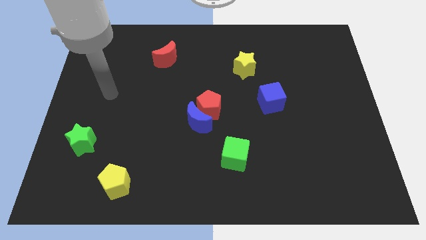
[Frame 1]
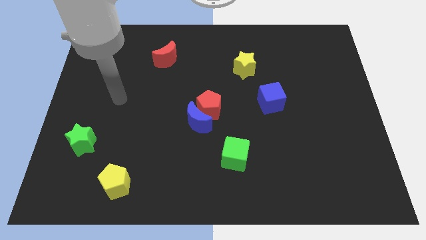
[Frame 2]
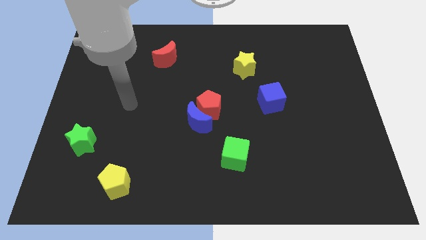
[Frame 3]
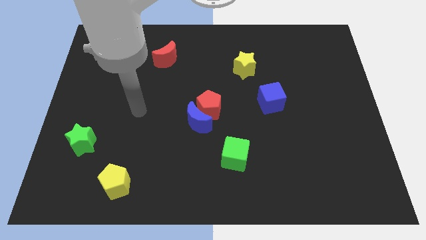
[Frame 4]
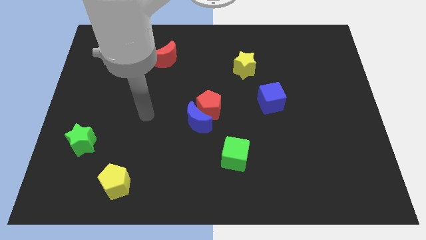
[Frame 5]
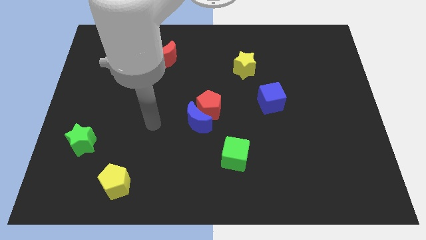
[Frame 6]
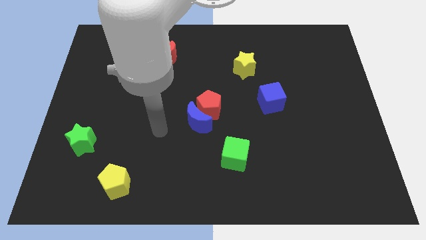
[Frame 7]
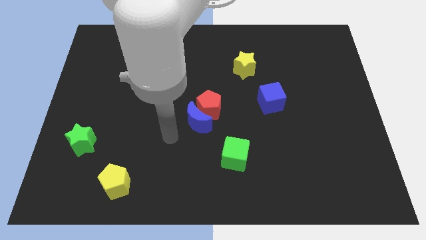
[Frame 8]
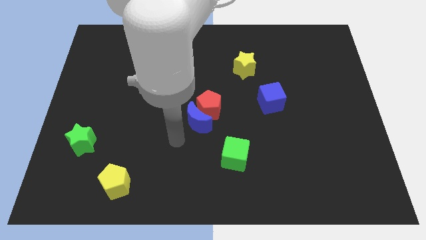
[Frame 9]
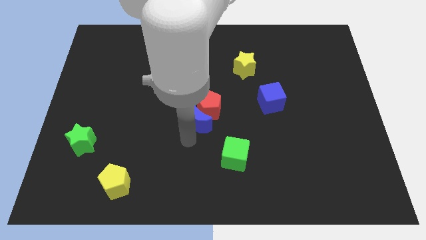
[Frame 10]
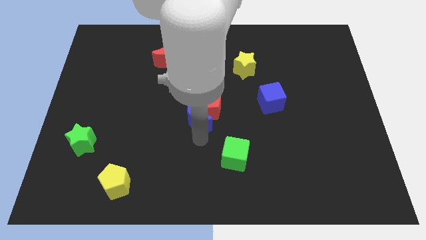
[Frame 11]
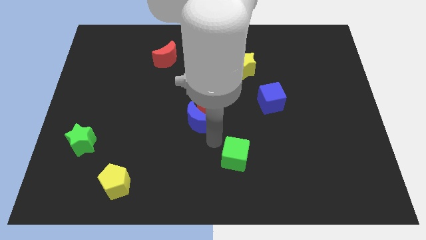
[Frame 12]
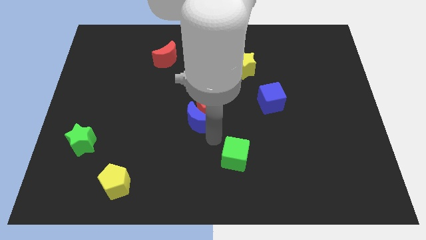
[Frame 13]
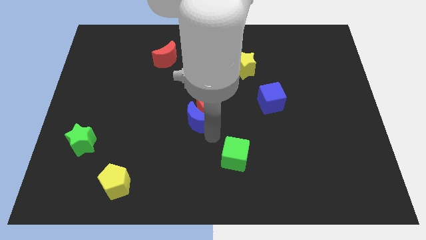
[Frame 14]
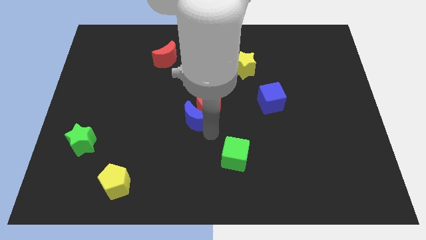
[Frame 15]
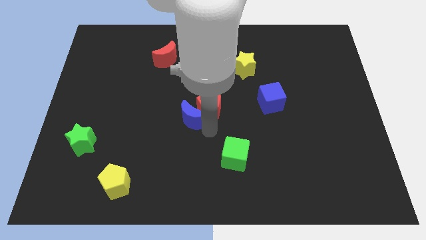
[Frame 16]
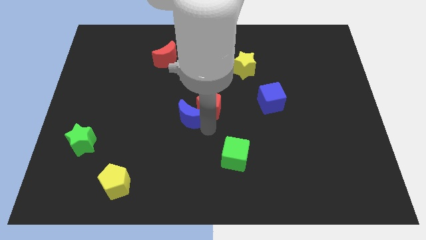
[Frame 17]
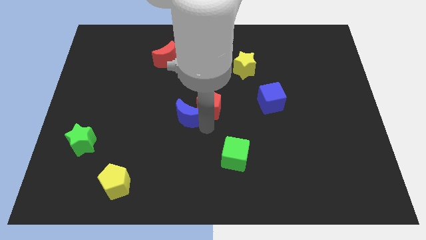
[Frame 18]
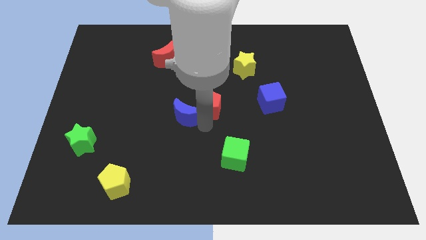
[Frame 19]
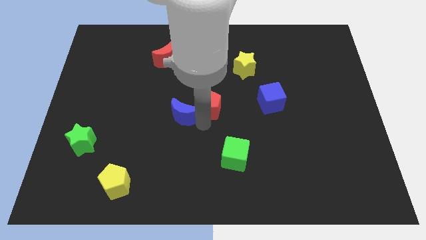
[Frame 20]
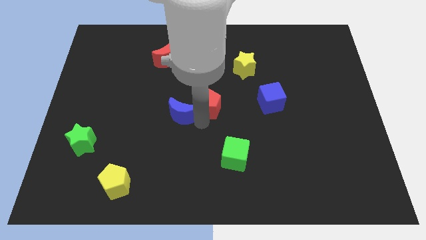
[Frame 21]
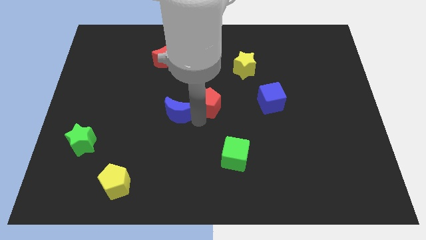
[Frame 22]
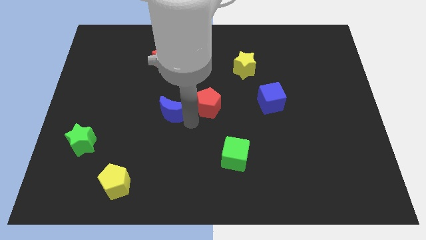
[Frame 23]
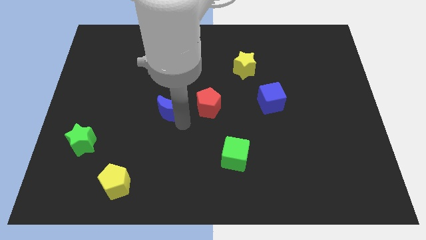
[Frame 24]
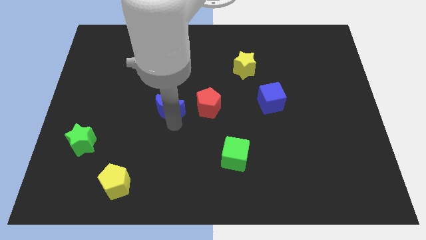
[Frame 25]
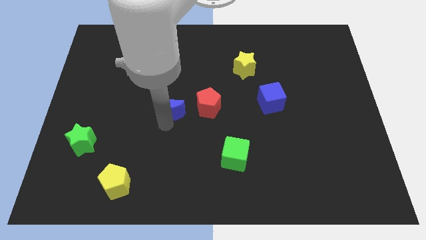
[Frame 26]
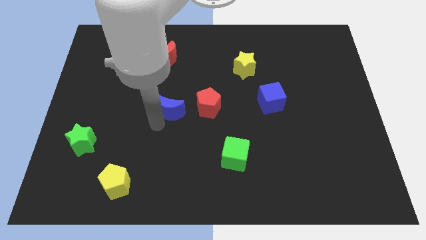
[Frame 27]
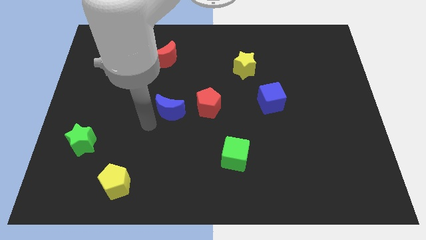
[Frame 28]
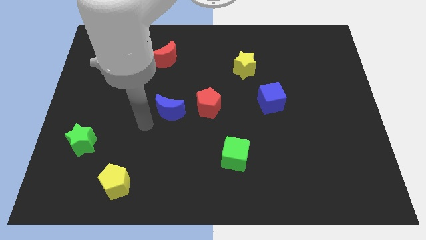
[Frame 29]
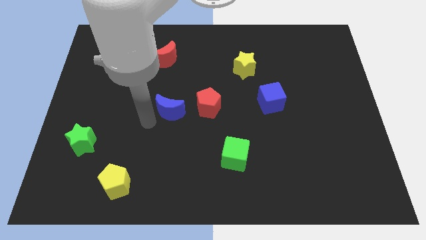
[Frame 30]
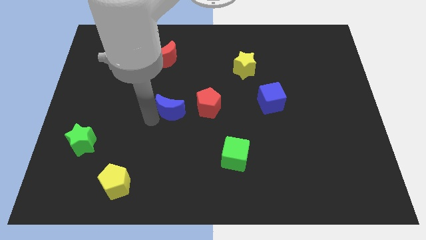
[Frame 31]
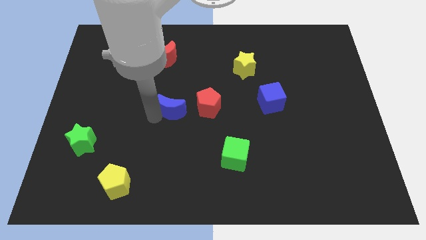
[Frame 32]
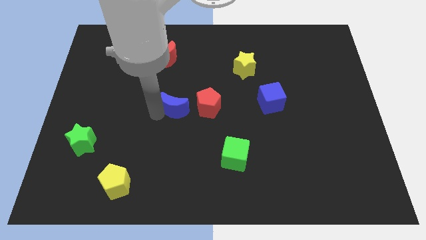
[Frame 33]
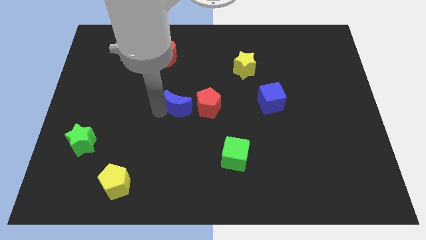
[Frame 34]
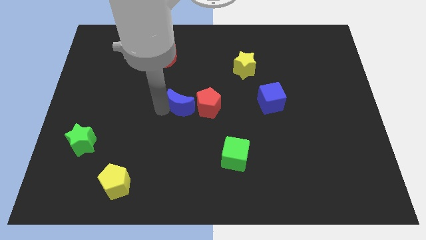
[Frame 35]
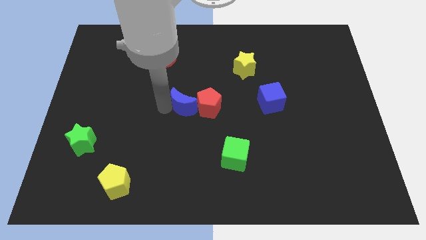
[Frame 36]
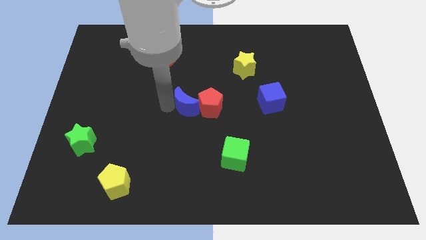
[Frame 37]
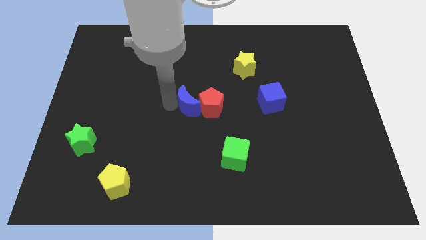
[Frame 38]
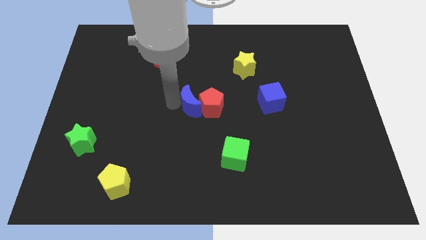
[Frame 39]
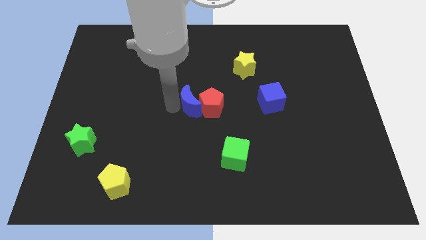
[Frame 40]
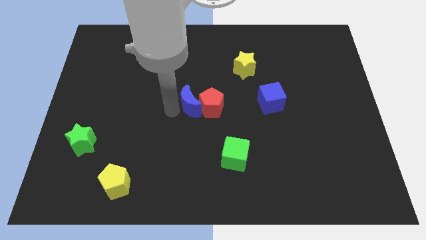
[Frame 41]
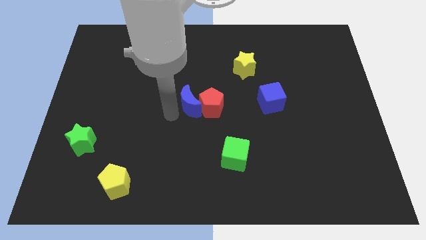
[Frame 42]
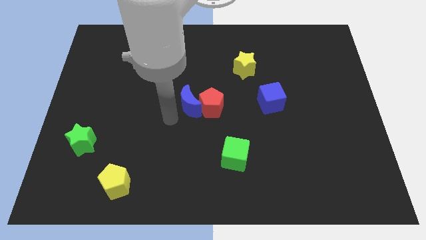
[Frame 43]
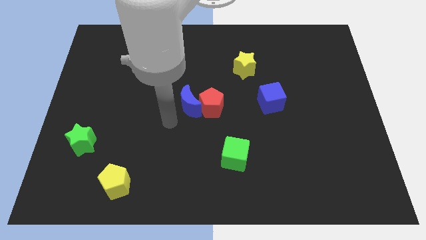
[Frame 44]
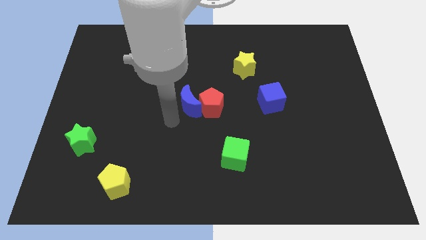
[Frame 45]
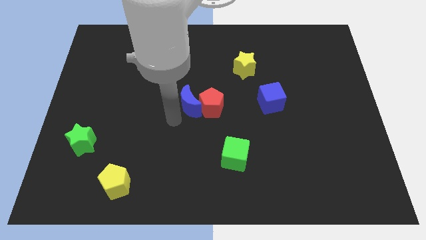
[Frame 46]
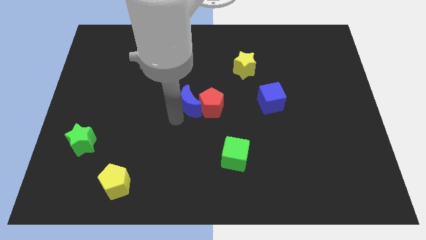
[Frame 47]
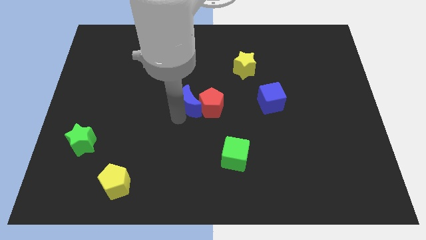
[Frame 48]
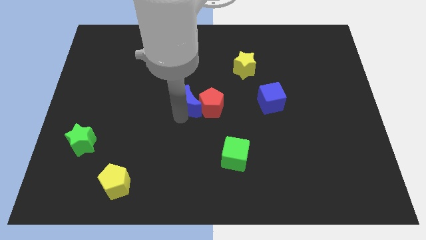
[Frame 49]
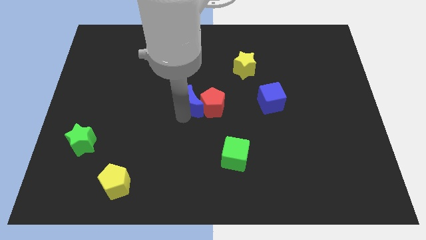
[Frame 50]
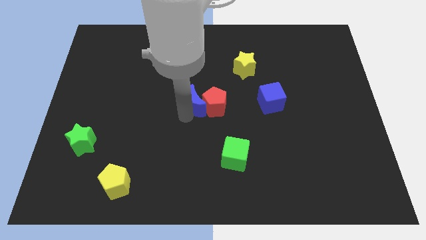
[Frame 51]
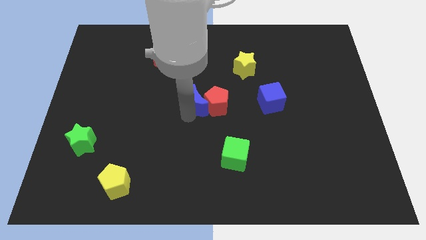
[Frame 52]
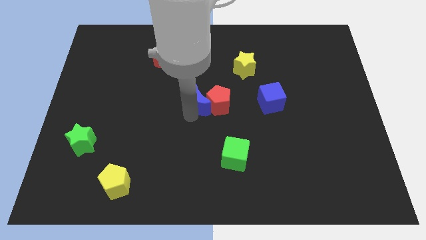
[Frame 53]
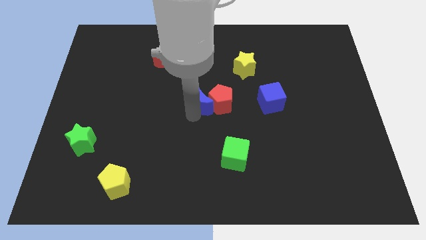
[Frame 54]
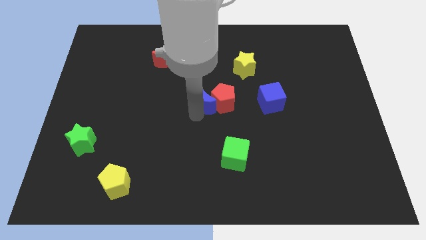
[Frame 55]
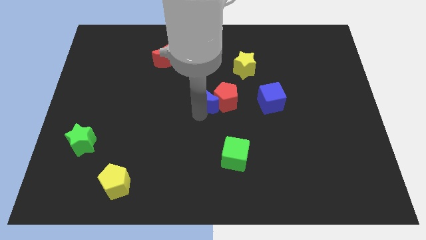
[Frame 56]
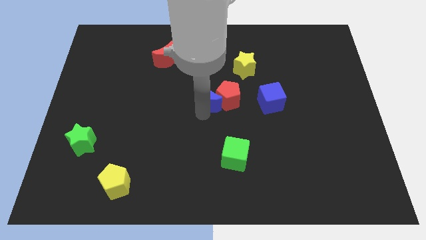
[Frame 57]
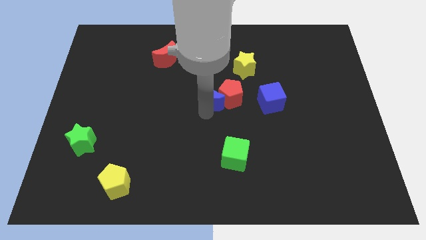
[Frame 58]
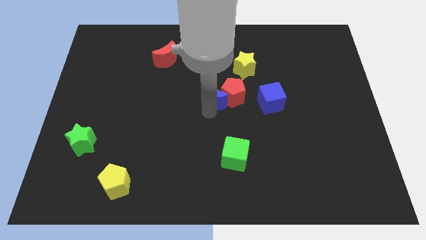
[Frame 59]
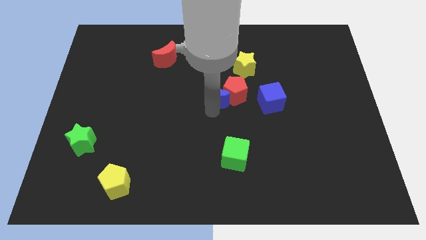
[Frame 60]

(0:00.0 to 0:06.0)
push the blue moon diagonally down and to the left of the yellow star

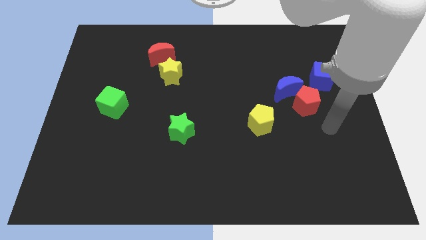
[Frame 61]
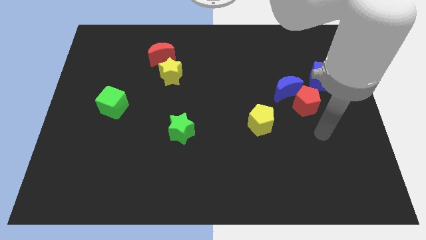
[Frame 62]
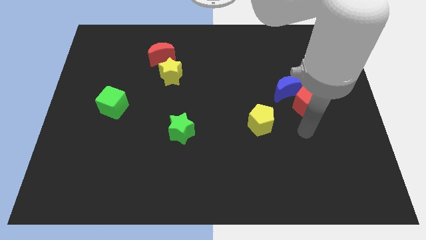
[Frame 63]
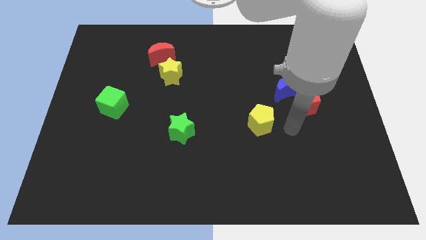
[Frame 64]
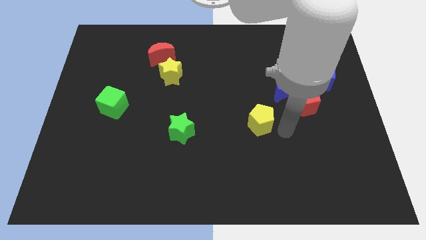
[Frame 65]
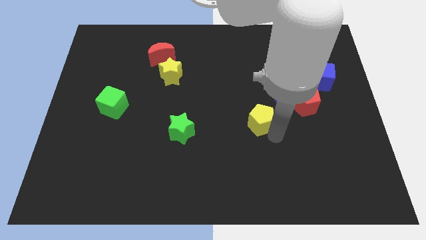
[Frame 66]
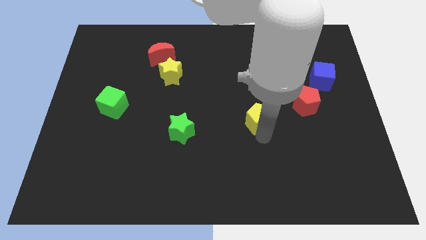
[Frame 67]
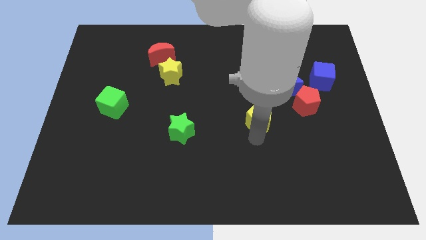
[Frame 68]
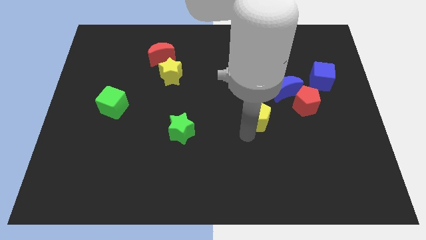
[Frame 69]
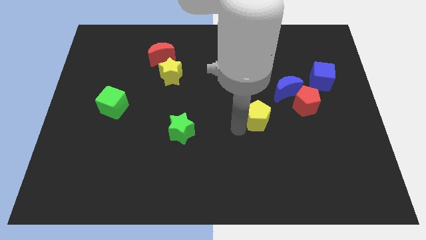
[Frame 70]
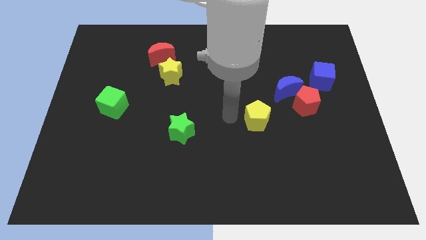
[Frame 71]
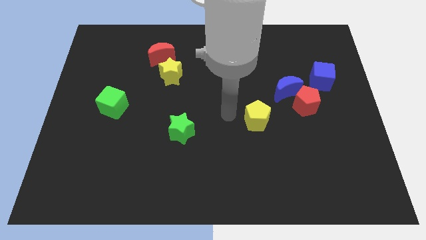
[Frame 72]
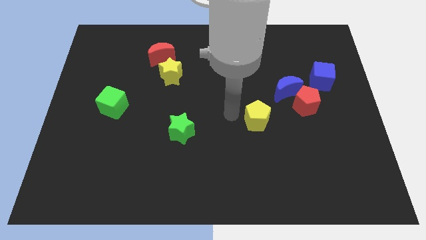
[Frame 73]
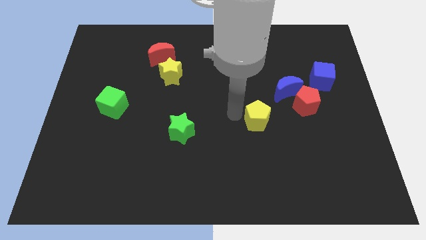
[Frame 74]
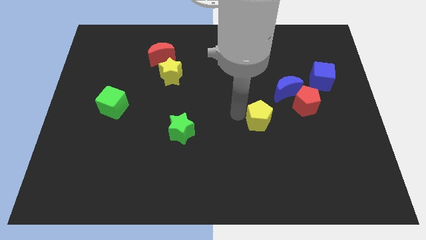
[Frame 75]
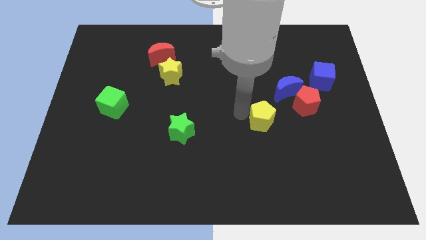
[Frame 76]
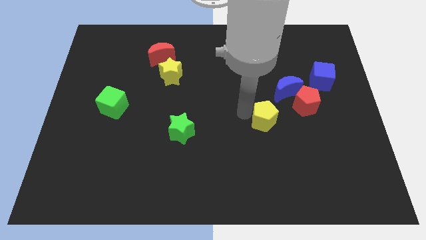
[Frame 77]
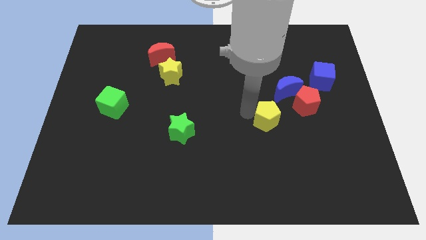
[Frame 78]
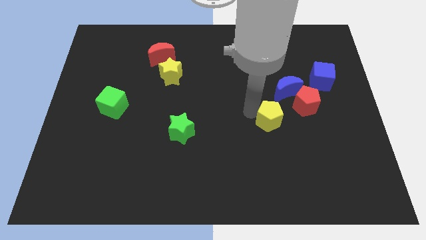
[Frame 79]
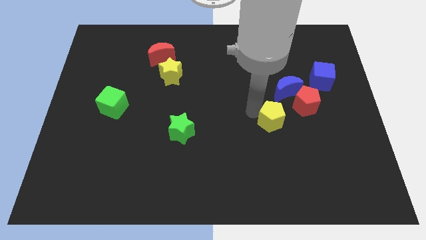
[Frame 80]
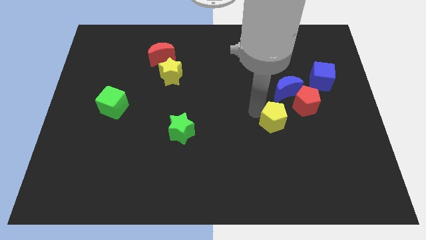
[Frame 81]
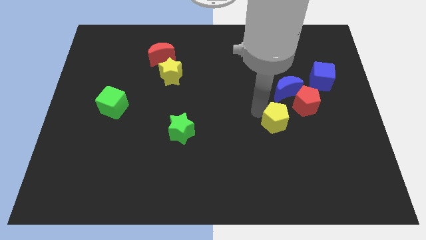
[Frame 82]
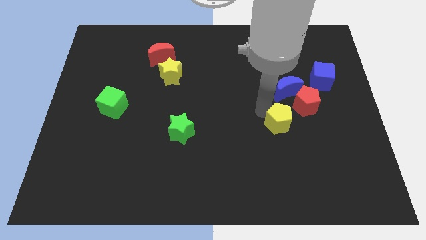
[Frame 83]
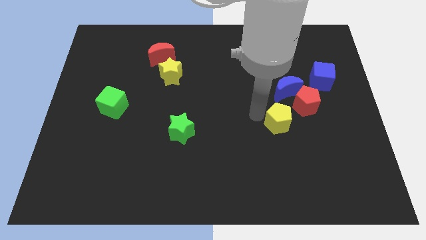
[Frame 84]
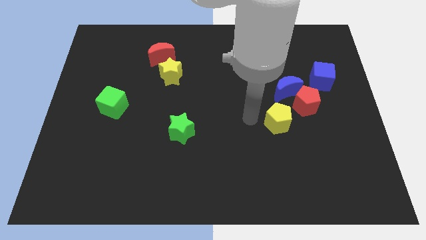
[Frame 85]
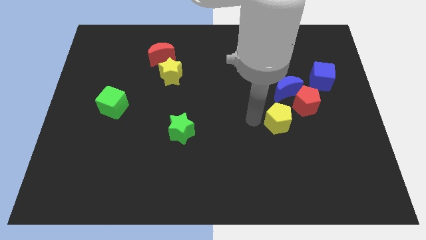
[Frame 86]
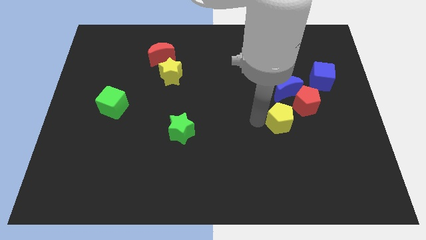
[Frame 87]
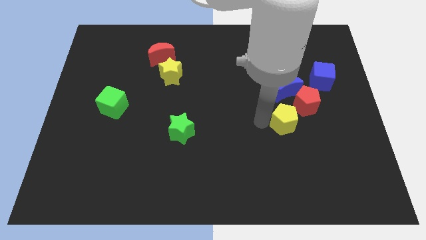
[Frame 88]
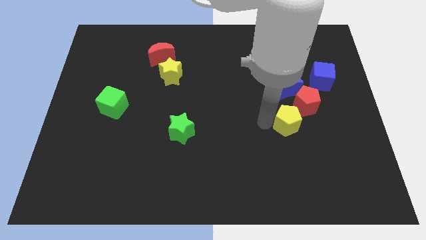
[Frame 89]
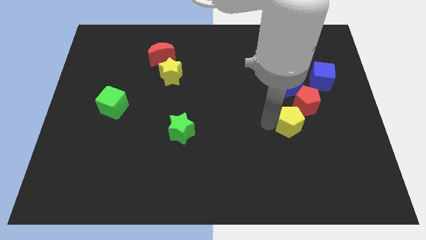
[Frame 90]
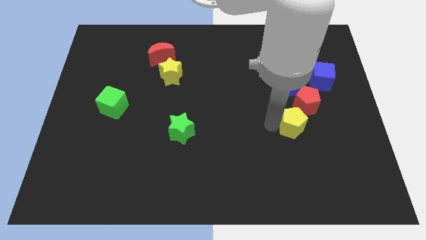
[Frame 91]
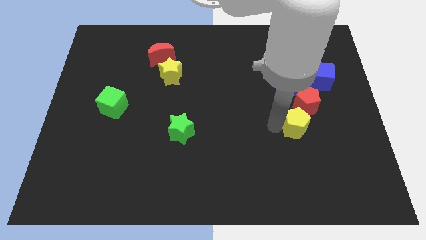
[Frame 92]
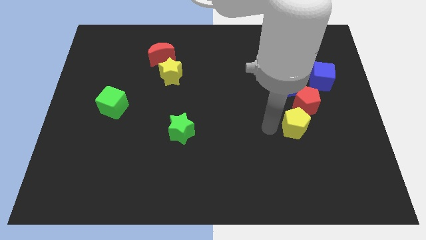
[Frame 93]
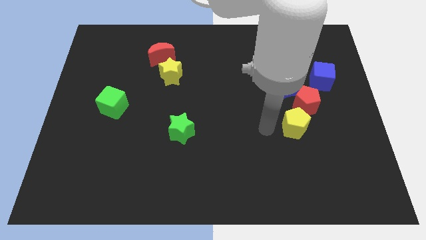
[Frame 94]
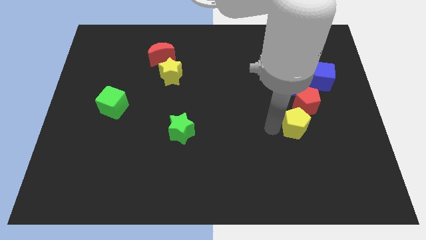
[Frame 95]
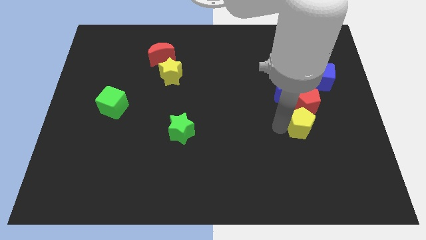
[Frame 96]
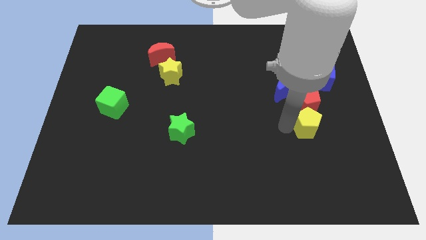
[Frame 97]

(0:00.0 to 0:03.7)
push the yellow pentagon to the bottom right of the red pentagon
